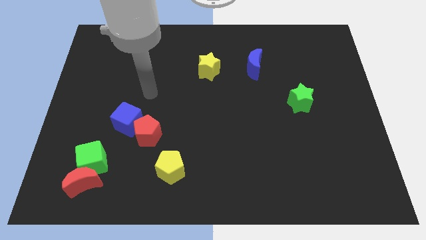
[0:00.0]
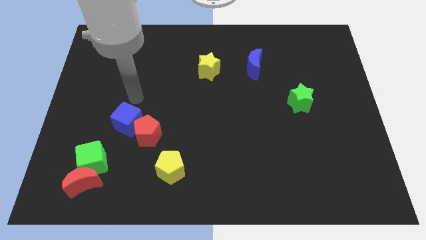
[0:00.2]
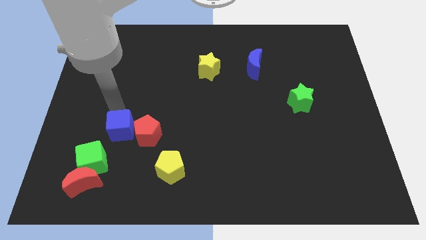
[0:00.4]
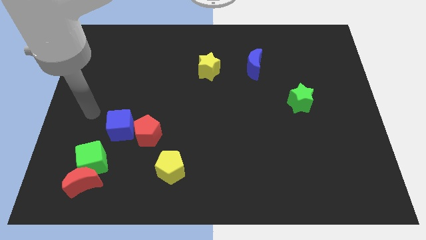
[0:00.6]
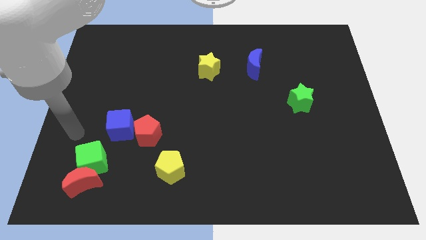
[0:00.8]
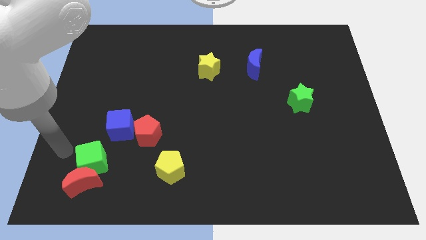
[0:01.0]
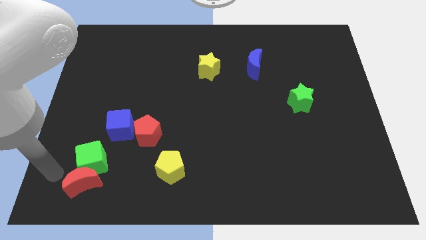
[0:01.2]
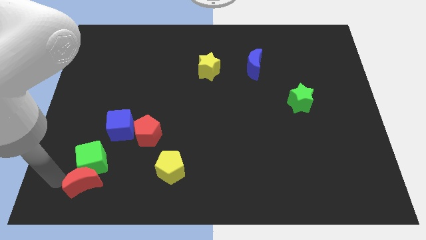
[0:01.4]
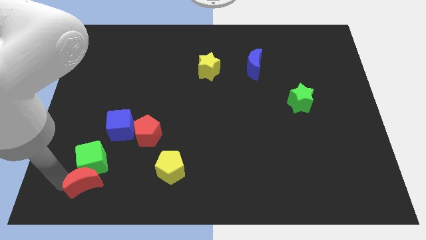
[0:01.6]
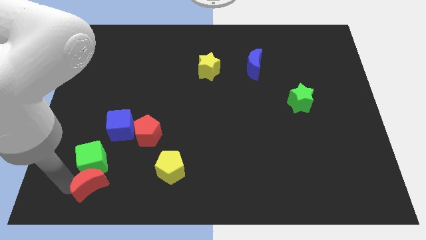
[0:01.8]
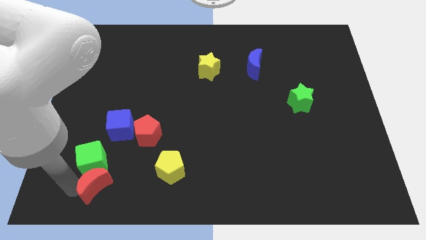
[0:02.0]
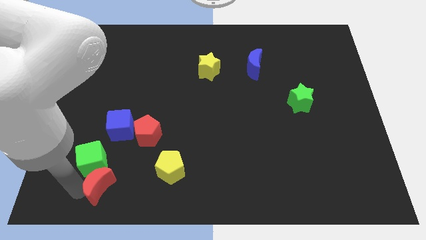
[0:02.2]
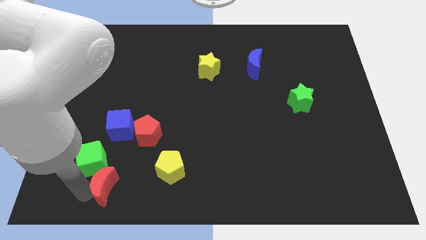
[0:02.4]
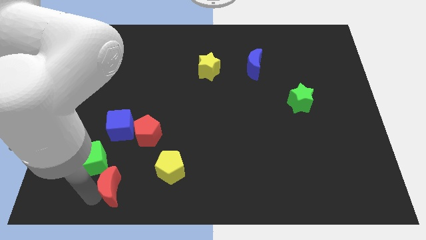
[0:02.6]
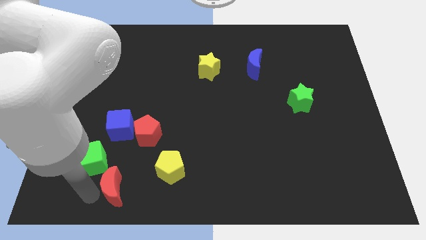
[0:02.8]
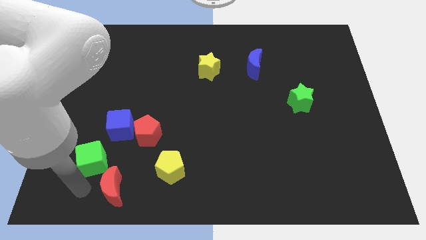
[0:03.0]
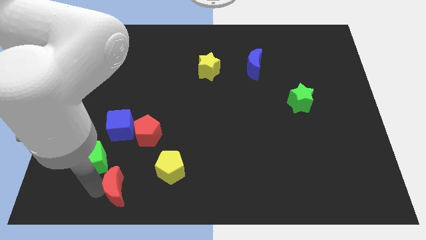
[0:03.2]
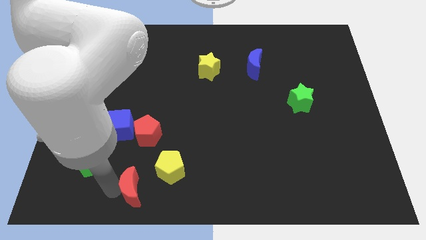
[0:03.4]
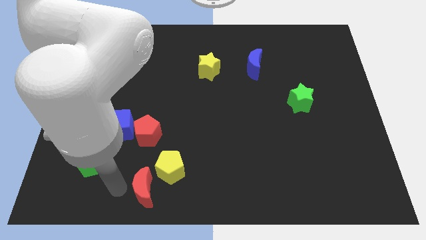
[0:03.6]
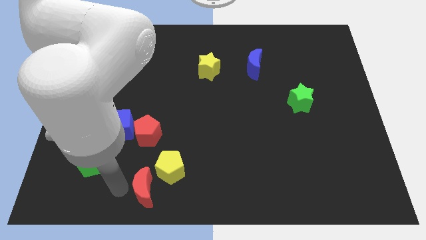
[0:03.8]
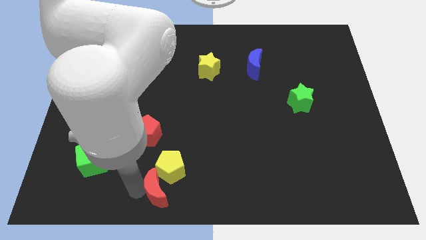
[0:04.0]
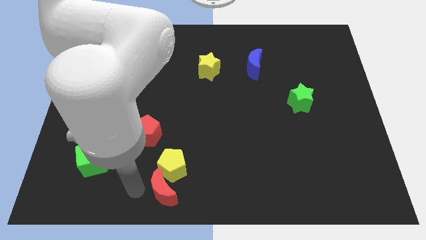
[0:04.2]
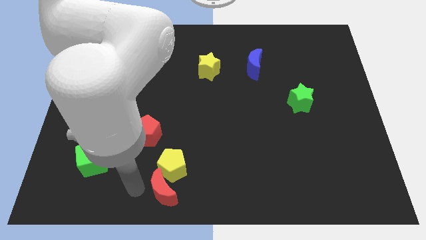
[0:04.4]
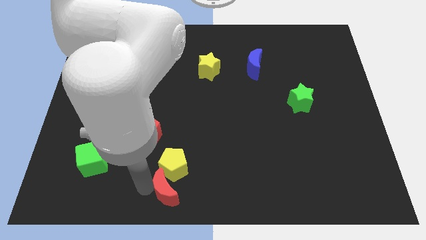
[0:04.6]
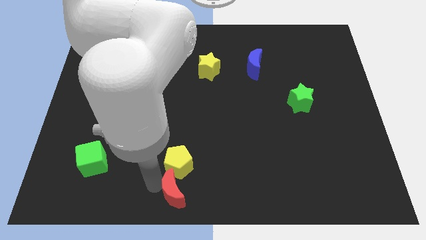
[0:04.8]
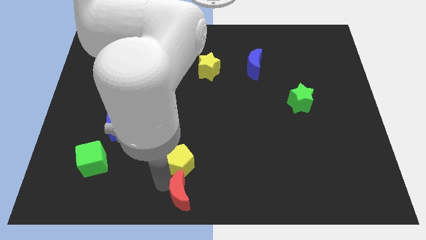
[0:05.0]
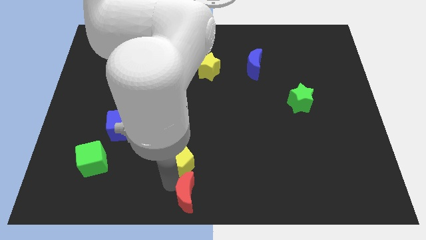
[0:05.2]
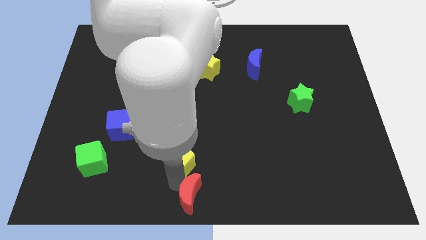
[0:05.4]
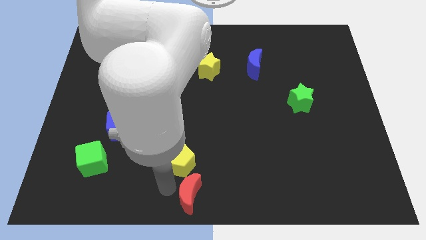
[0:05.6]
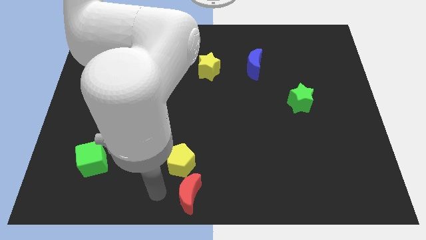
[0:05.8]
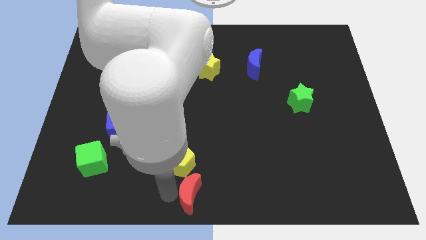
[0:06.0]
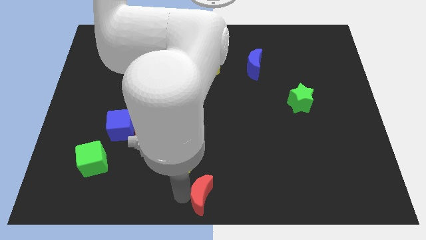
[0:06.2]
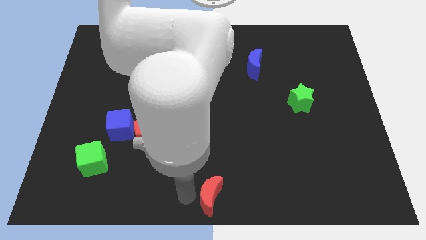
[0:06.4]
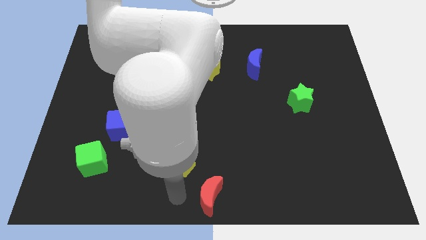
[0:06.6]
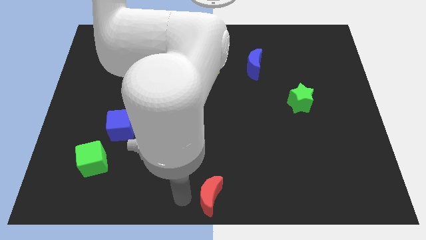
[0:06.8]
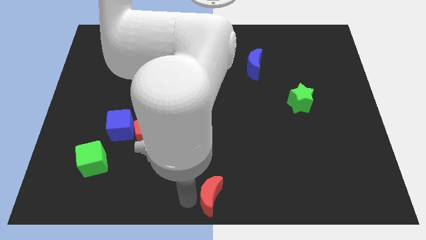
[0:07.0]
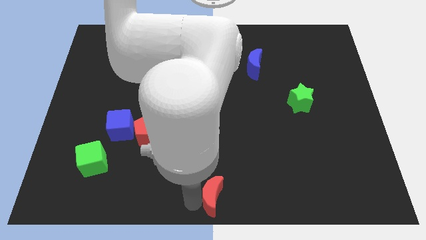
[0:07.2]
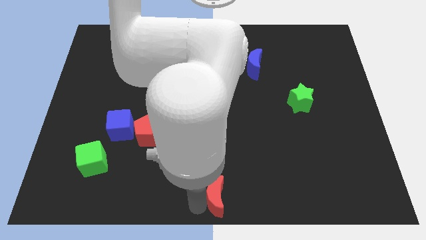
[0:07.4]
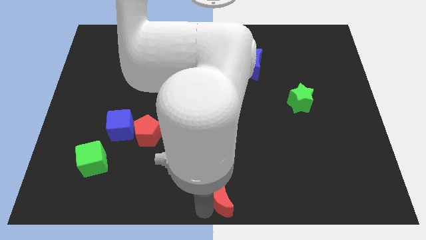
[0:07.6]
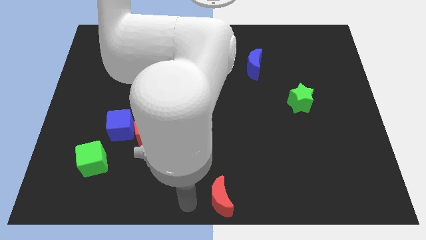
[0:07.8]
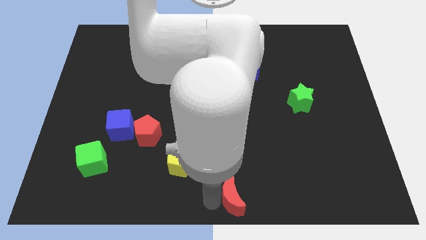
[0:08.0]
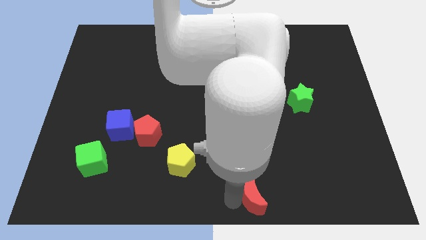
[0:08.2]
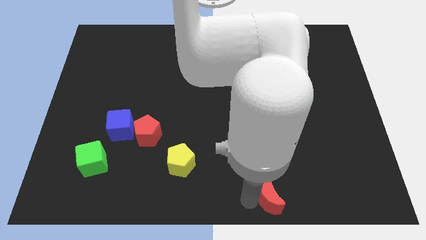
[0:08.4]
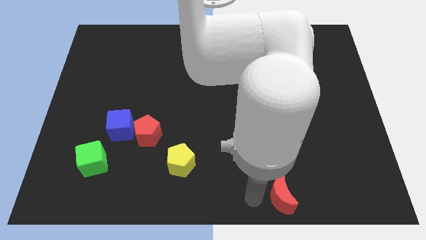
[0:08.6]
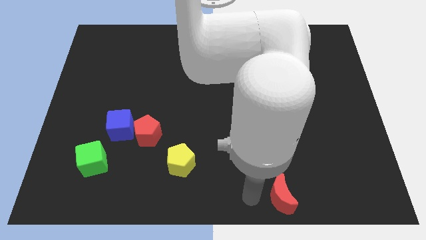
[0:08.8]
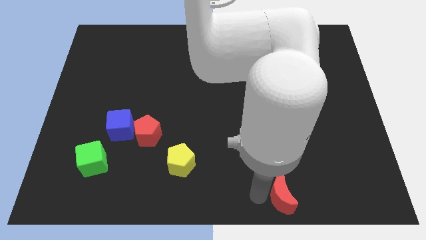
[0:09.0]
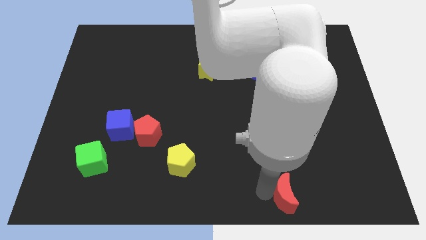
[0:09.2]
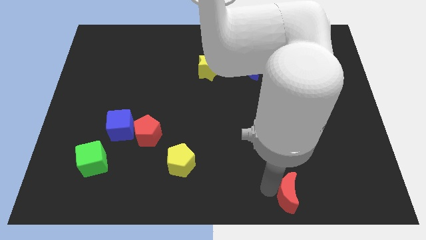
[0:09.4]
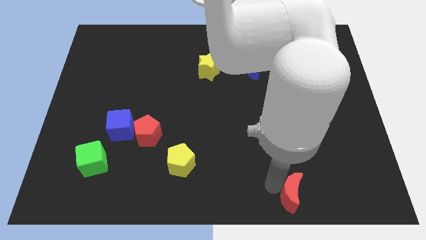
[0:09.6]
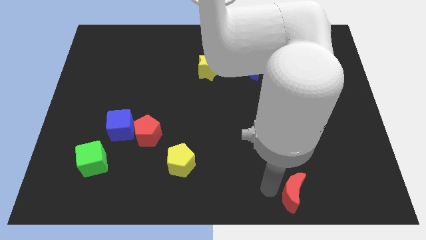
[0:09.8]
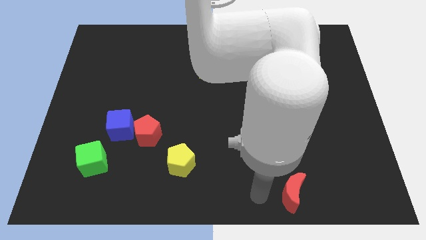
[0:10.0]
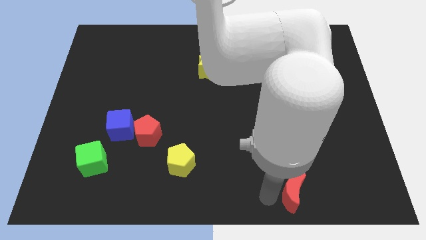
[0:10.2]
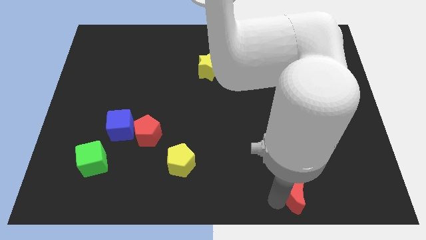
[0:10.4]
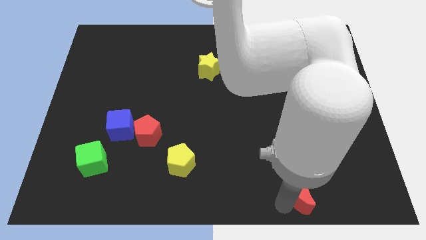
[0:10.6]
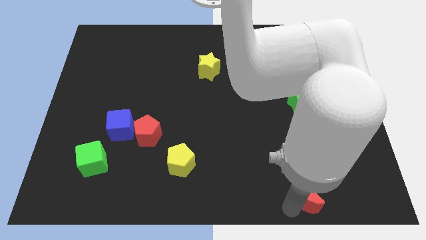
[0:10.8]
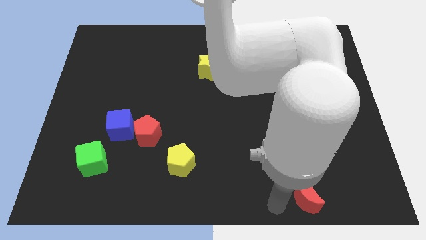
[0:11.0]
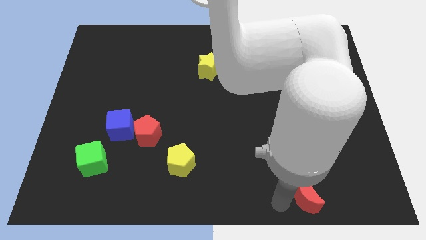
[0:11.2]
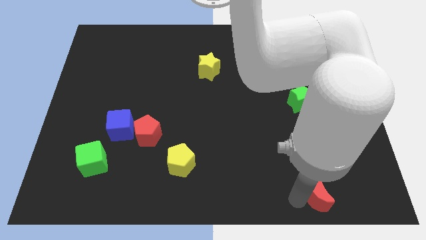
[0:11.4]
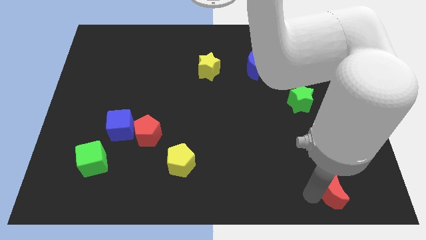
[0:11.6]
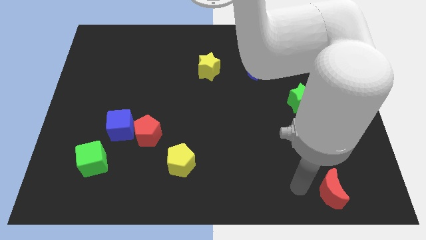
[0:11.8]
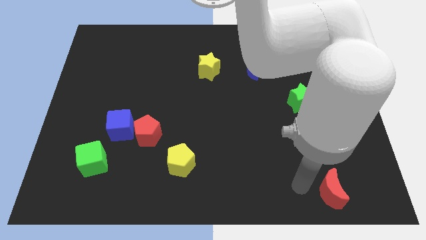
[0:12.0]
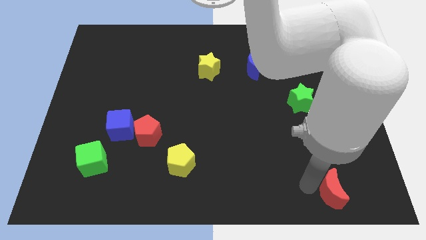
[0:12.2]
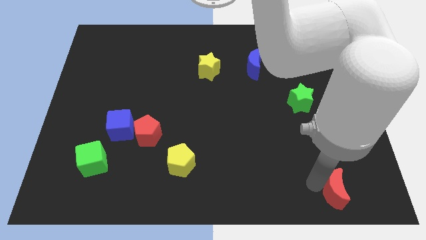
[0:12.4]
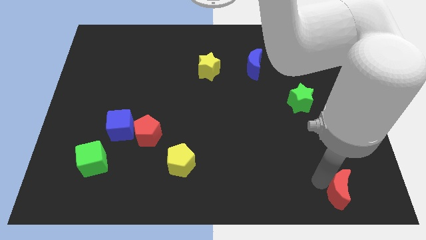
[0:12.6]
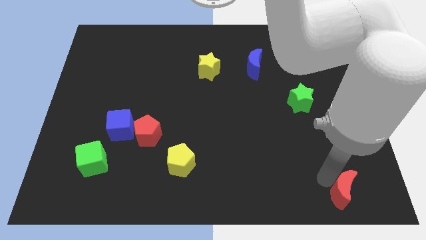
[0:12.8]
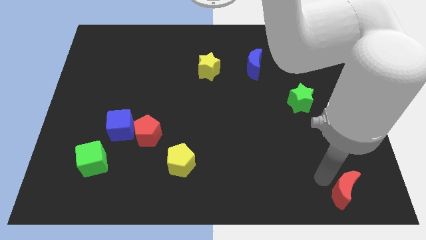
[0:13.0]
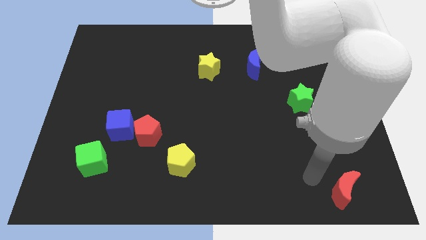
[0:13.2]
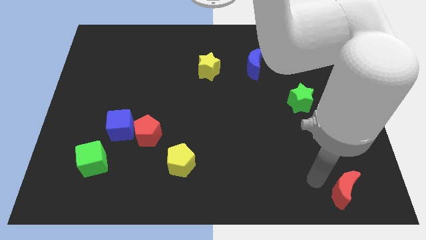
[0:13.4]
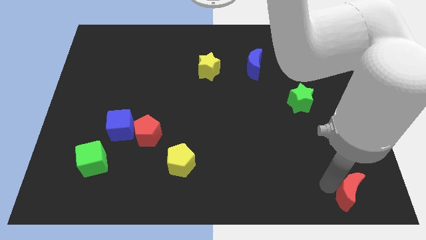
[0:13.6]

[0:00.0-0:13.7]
push the red moon to the lower right corner
